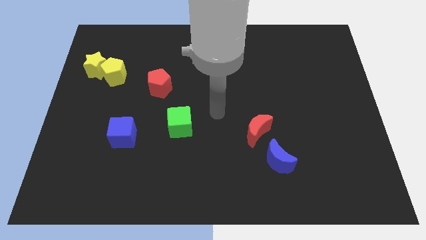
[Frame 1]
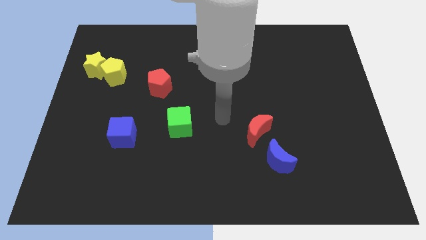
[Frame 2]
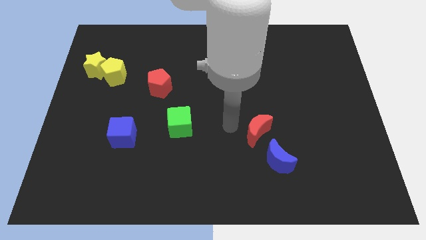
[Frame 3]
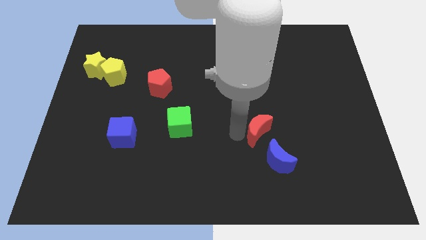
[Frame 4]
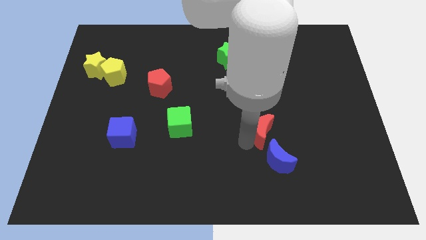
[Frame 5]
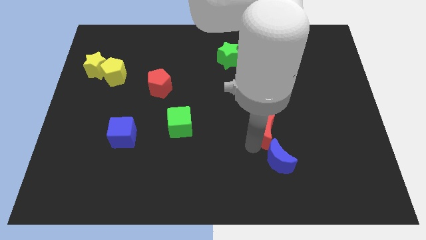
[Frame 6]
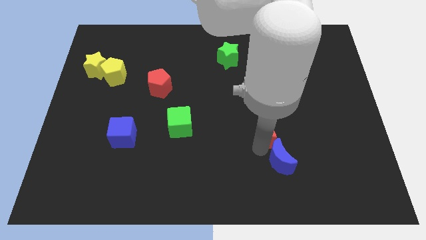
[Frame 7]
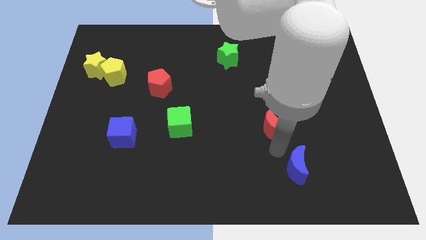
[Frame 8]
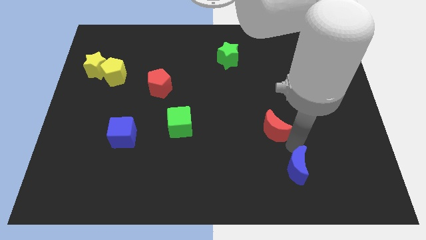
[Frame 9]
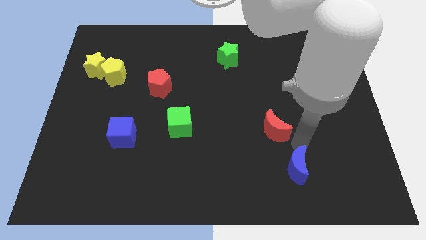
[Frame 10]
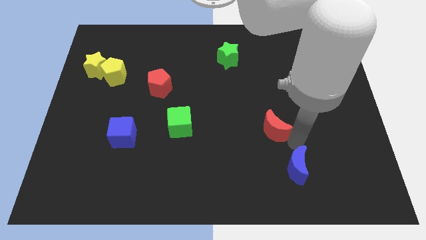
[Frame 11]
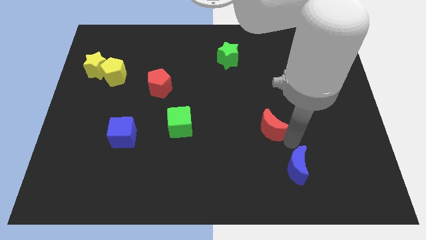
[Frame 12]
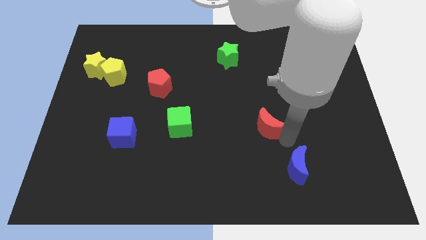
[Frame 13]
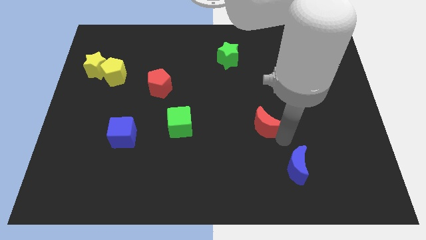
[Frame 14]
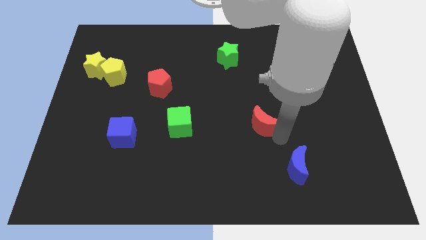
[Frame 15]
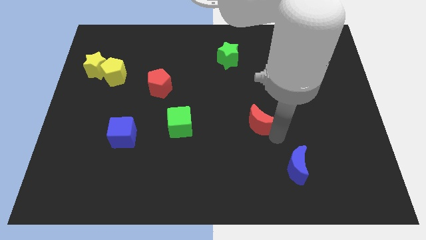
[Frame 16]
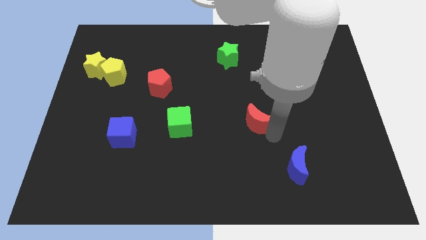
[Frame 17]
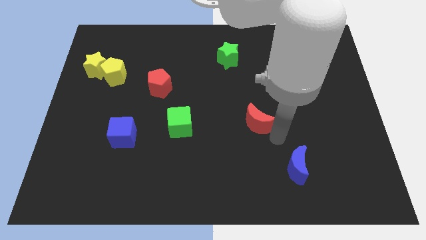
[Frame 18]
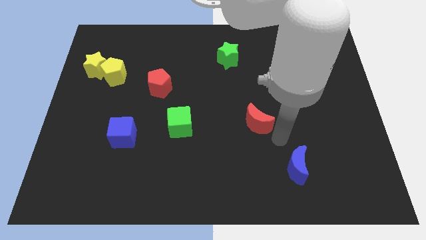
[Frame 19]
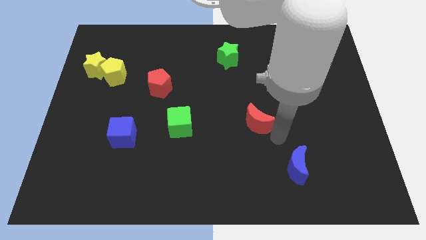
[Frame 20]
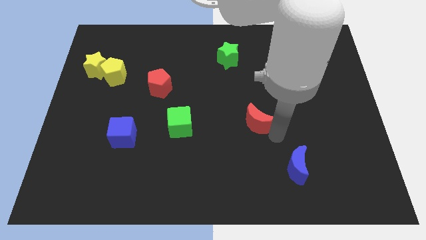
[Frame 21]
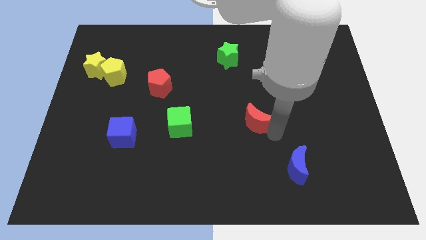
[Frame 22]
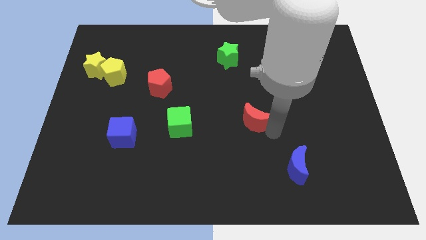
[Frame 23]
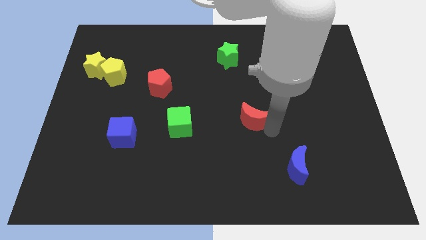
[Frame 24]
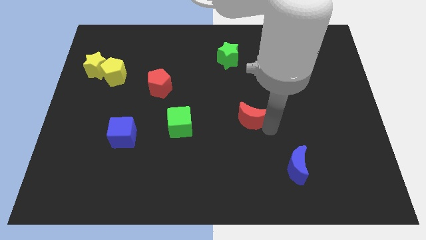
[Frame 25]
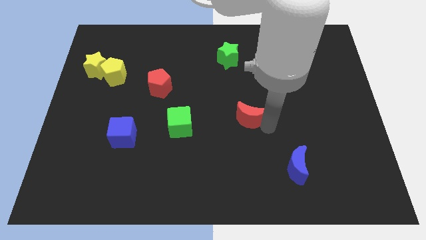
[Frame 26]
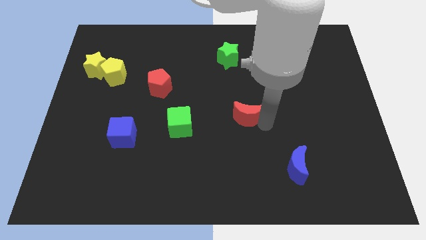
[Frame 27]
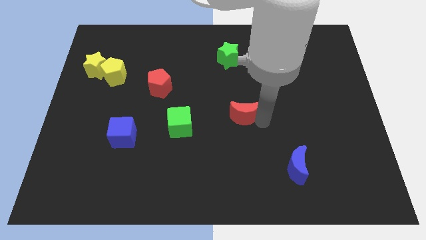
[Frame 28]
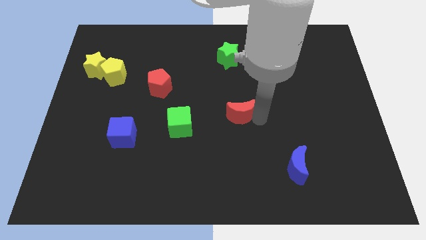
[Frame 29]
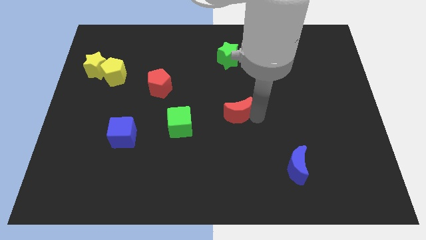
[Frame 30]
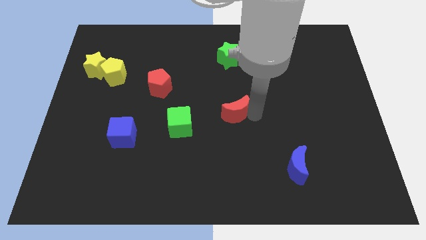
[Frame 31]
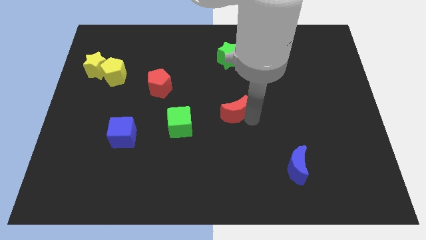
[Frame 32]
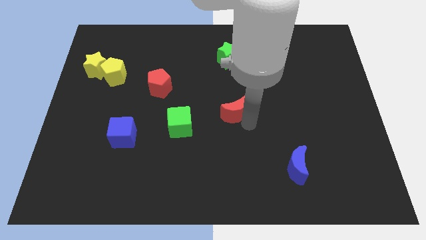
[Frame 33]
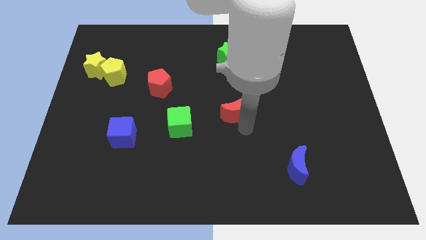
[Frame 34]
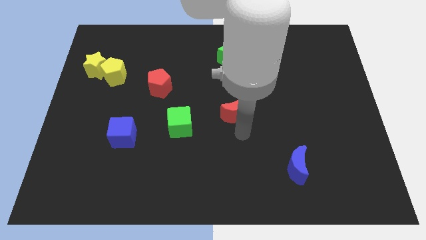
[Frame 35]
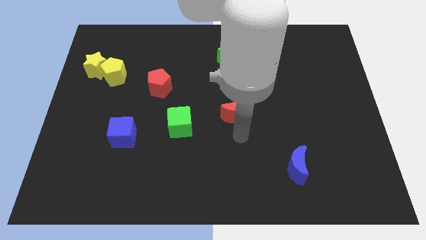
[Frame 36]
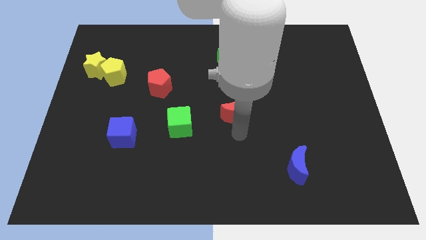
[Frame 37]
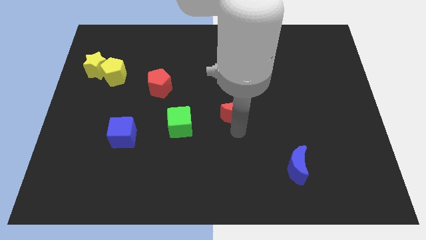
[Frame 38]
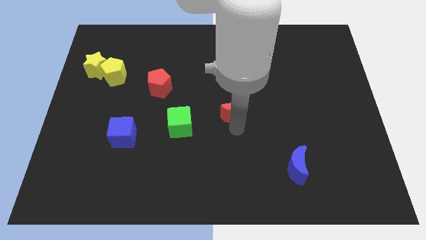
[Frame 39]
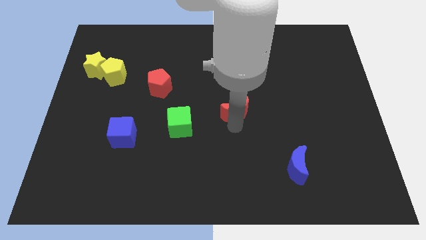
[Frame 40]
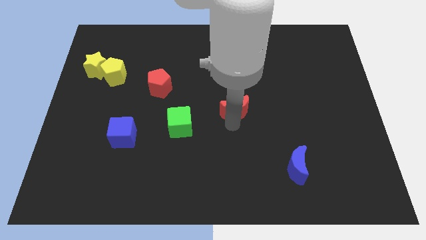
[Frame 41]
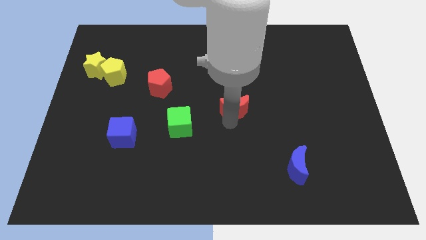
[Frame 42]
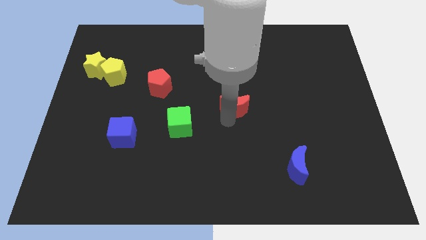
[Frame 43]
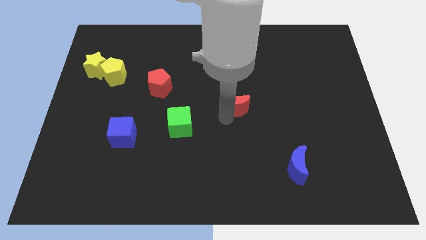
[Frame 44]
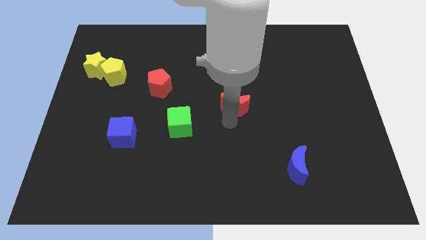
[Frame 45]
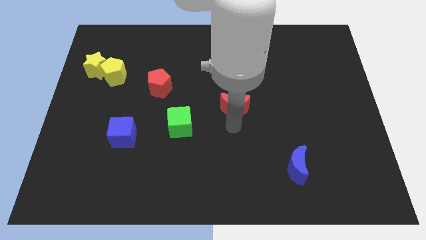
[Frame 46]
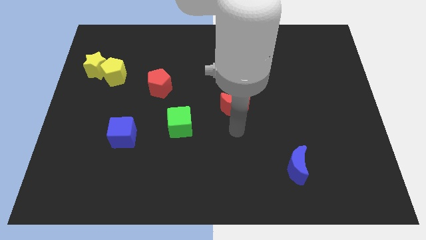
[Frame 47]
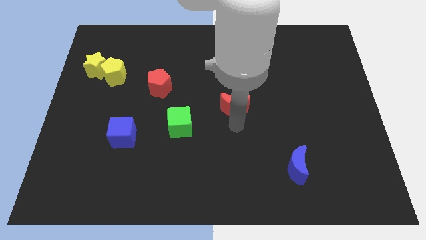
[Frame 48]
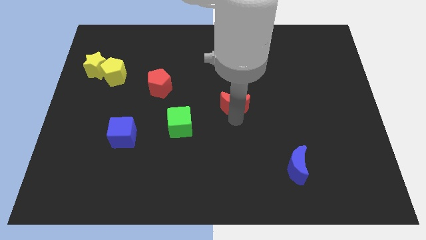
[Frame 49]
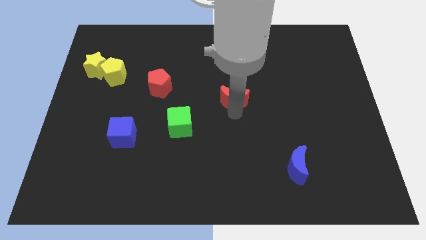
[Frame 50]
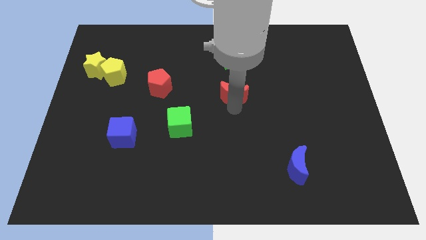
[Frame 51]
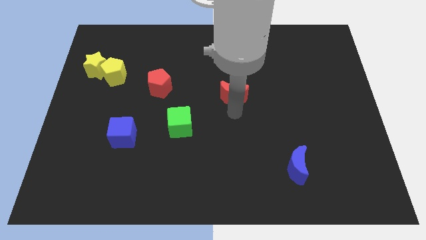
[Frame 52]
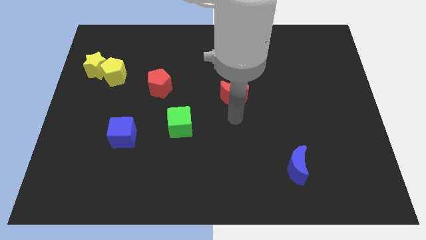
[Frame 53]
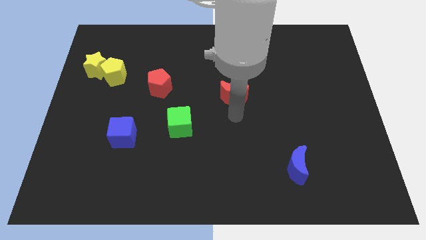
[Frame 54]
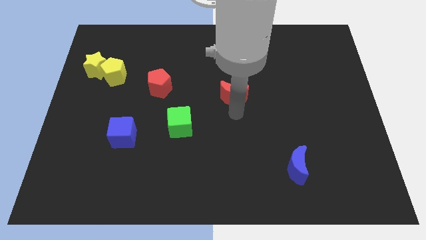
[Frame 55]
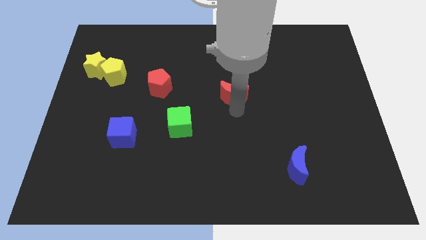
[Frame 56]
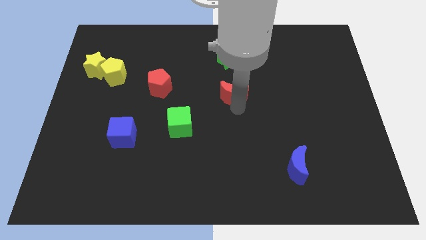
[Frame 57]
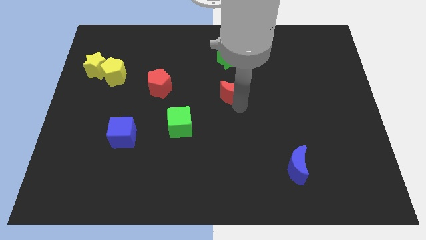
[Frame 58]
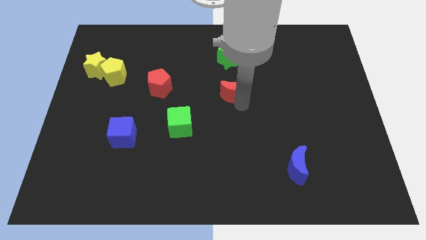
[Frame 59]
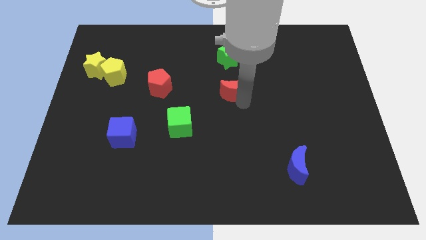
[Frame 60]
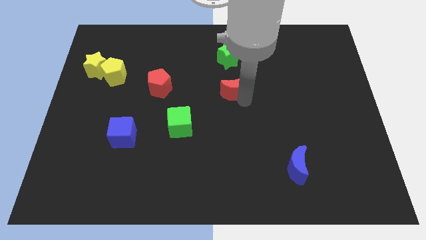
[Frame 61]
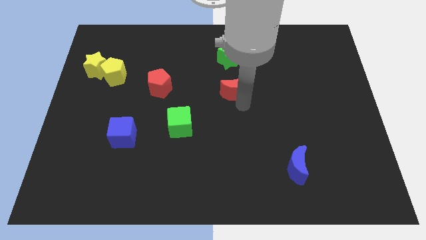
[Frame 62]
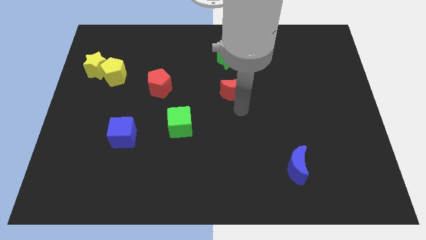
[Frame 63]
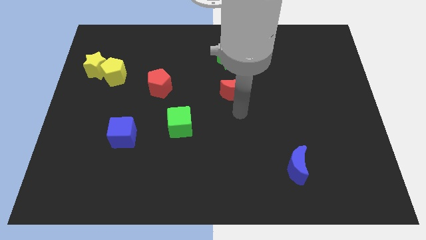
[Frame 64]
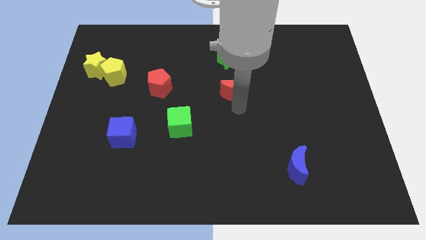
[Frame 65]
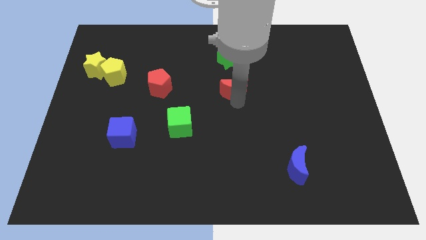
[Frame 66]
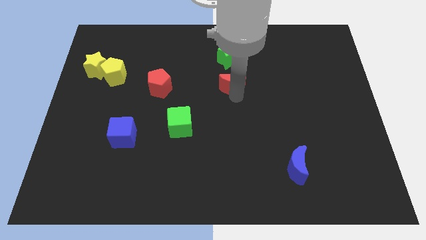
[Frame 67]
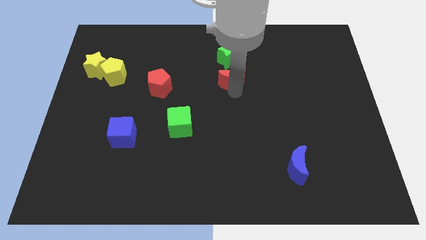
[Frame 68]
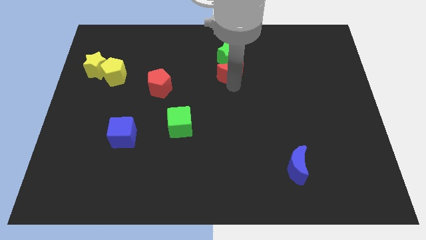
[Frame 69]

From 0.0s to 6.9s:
move the red moon next to the green star

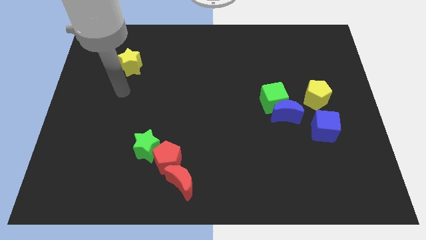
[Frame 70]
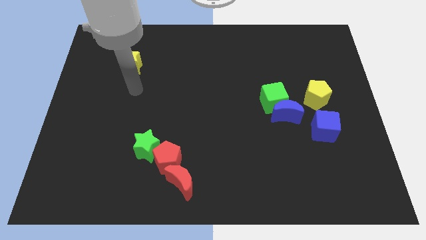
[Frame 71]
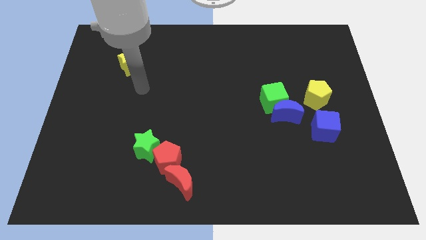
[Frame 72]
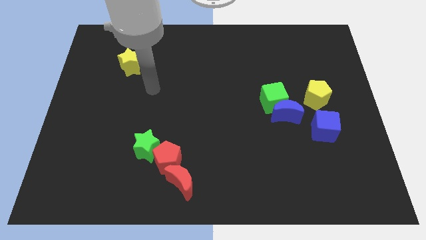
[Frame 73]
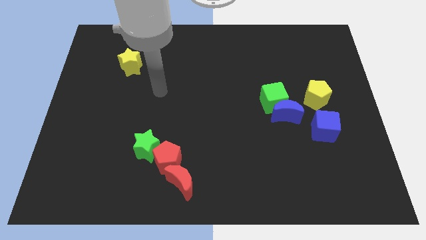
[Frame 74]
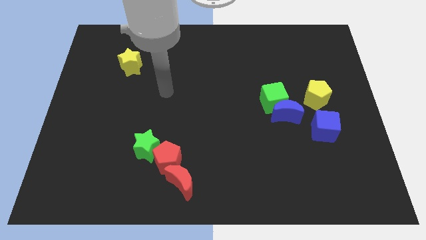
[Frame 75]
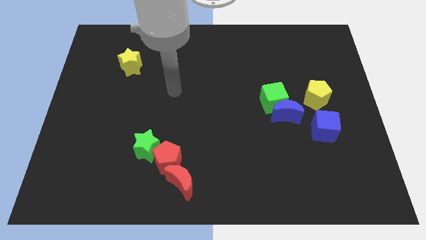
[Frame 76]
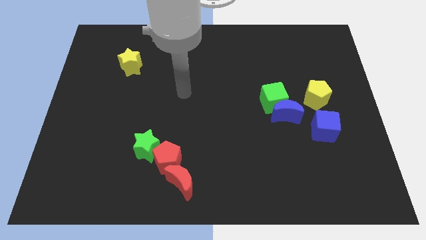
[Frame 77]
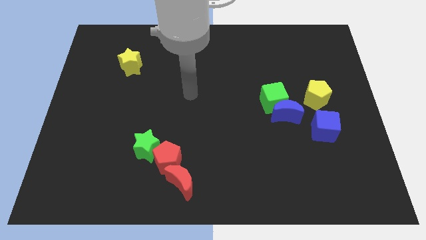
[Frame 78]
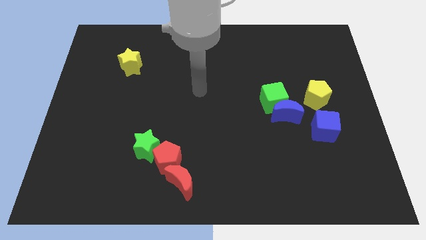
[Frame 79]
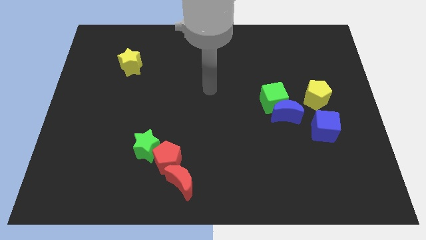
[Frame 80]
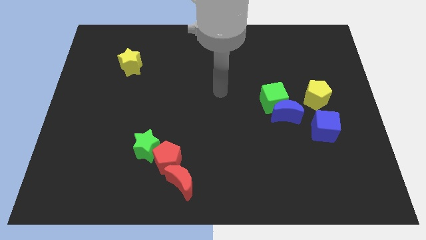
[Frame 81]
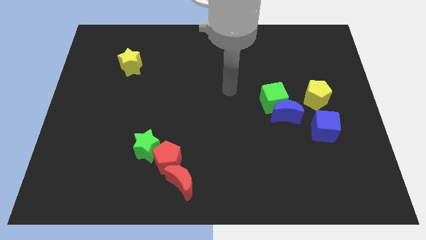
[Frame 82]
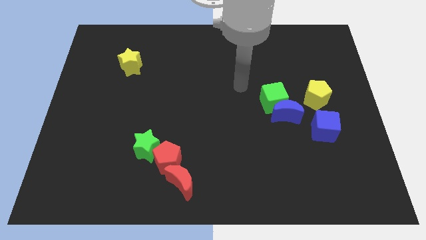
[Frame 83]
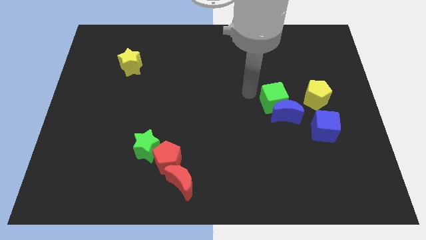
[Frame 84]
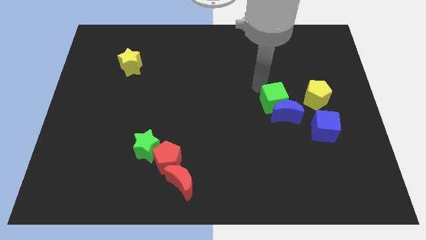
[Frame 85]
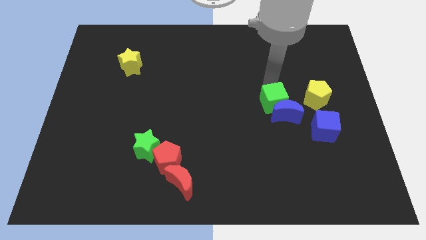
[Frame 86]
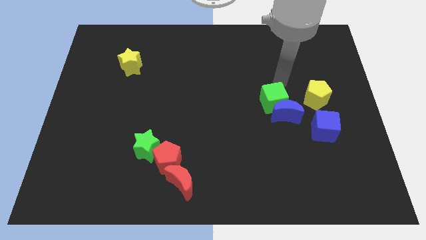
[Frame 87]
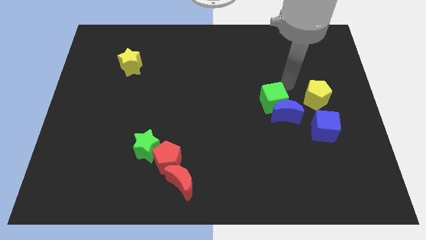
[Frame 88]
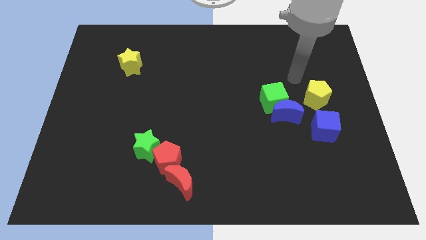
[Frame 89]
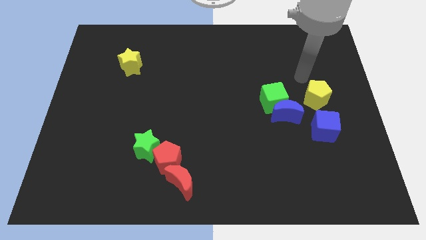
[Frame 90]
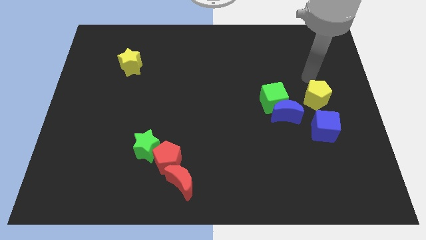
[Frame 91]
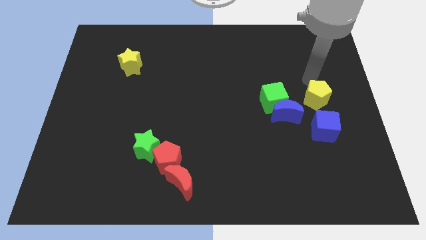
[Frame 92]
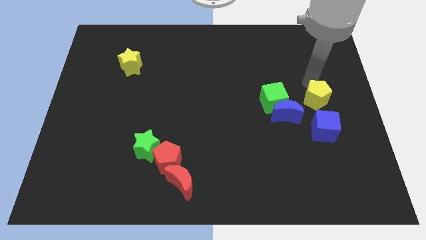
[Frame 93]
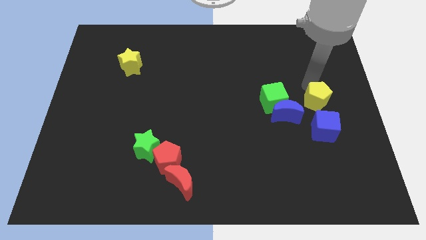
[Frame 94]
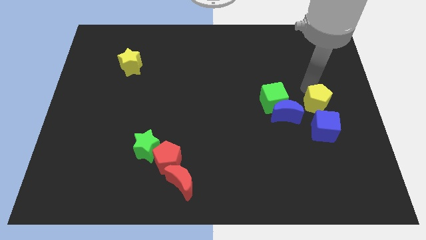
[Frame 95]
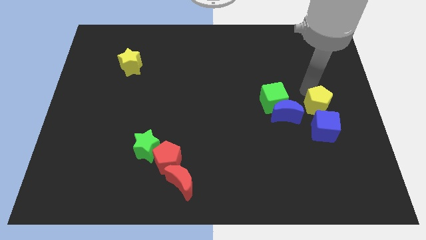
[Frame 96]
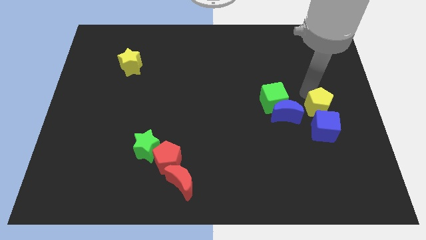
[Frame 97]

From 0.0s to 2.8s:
put the yellow pentagon close to the blue cube
